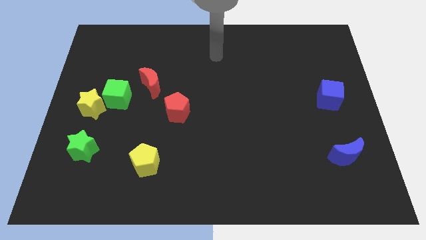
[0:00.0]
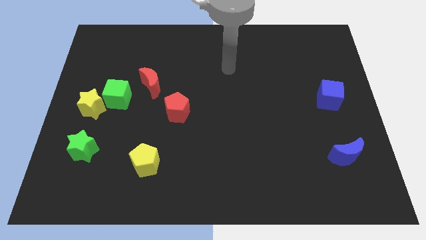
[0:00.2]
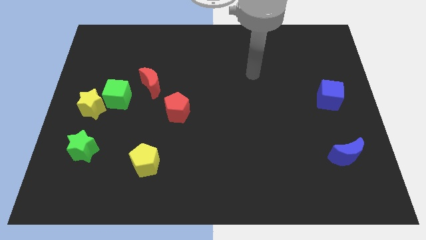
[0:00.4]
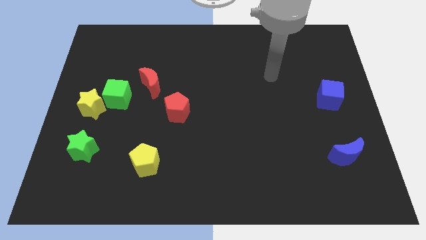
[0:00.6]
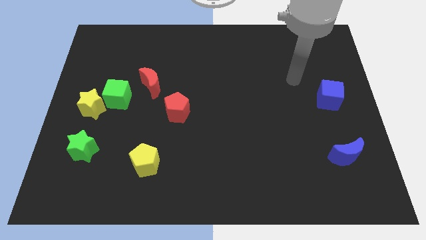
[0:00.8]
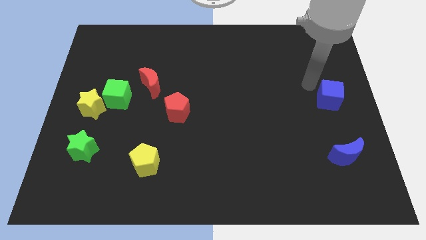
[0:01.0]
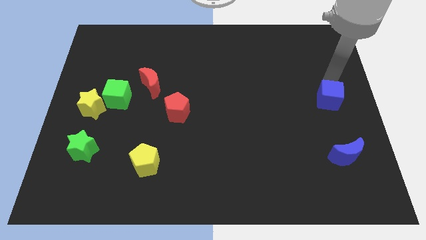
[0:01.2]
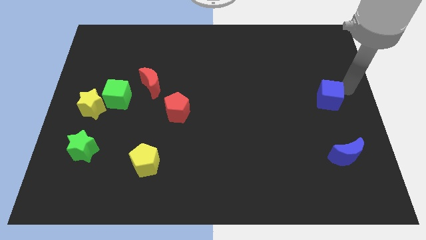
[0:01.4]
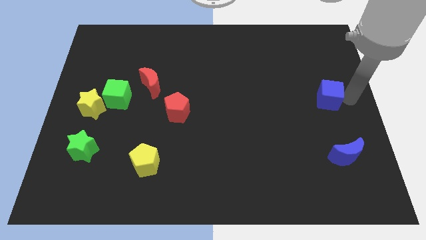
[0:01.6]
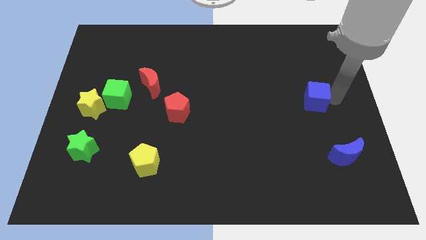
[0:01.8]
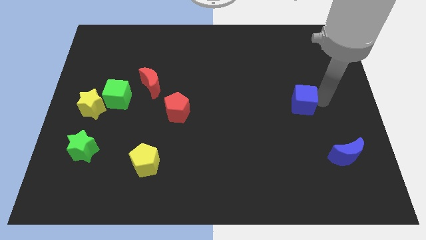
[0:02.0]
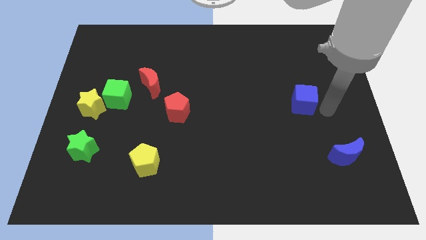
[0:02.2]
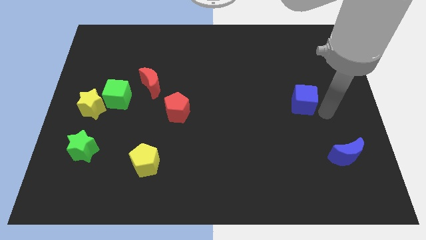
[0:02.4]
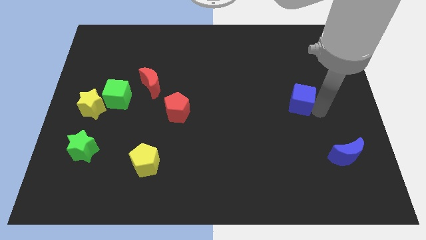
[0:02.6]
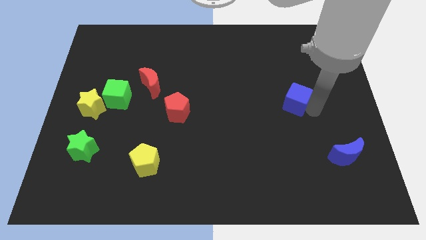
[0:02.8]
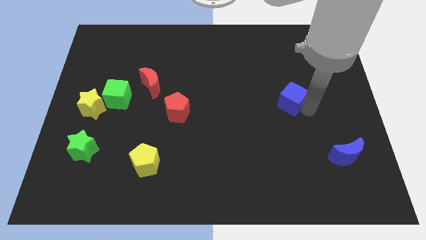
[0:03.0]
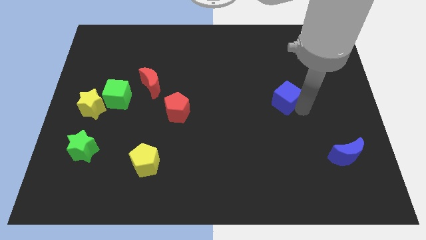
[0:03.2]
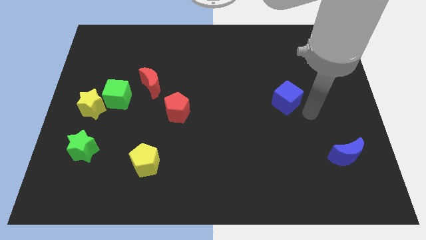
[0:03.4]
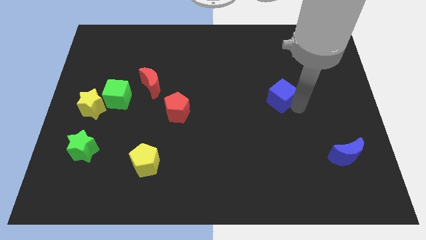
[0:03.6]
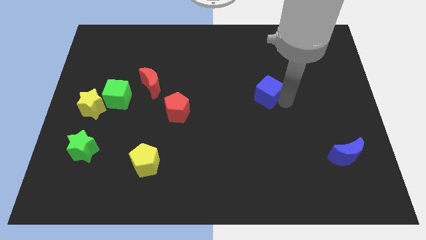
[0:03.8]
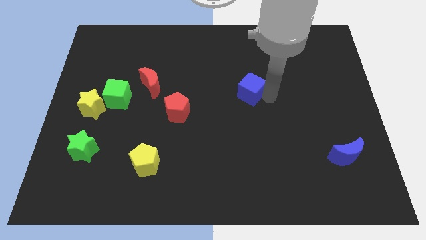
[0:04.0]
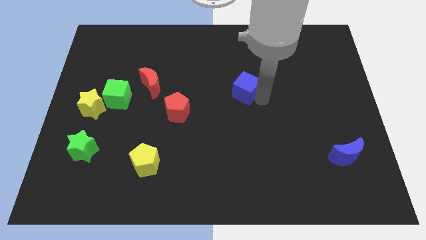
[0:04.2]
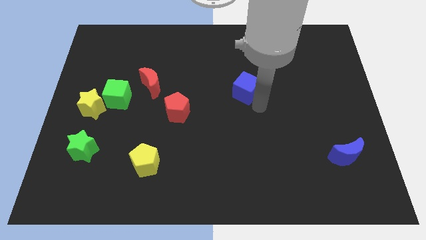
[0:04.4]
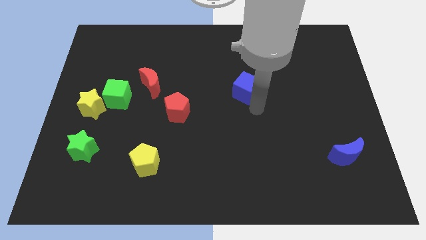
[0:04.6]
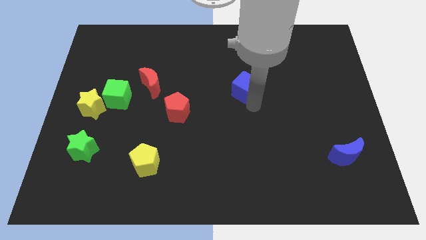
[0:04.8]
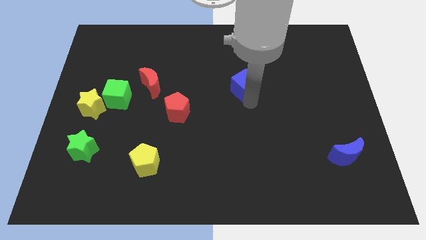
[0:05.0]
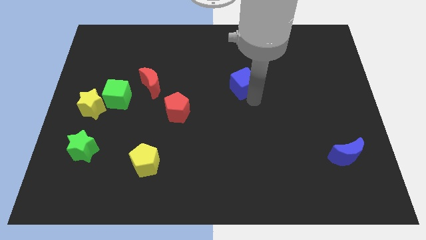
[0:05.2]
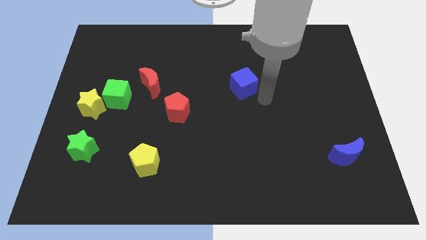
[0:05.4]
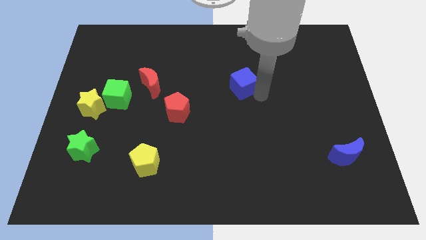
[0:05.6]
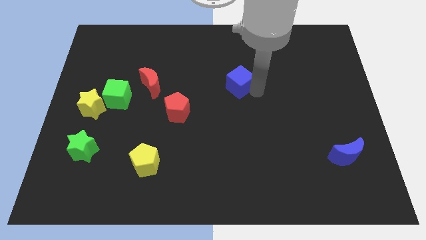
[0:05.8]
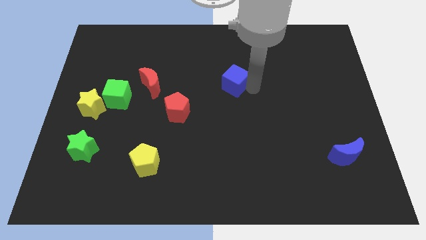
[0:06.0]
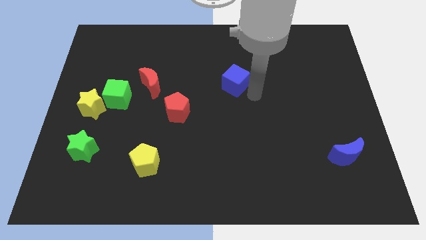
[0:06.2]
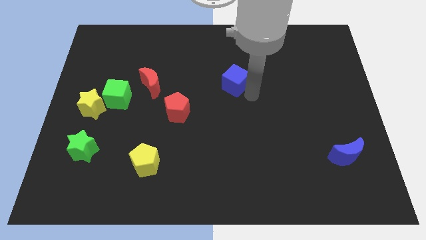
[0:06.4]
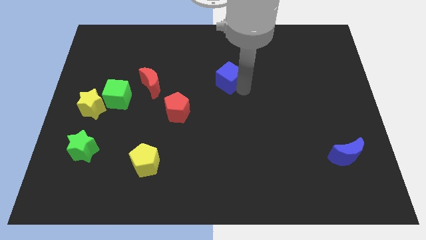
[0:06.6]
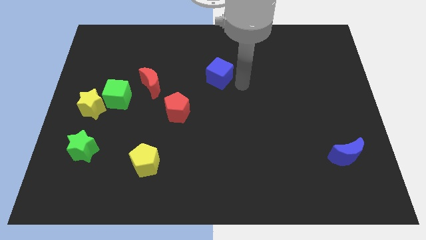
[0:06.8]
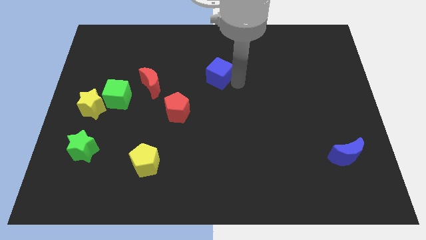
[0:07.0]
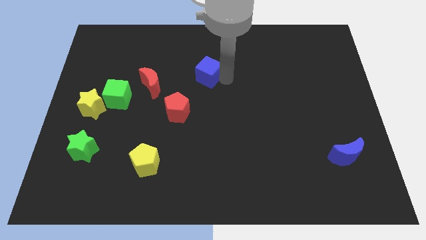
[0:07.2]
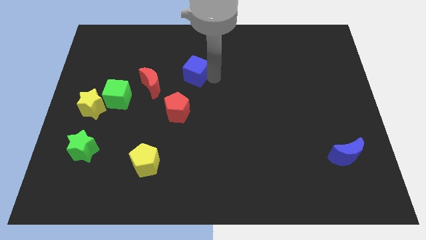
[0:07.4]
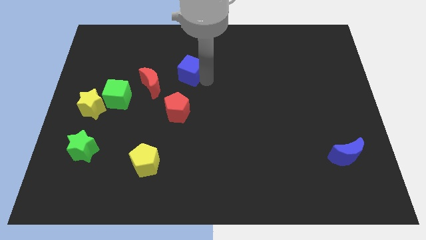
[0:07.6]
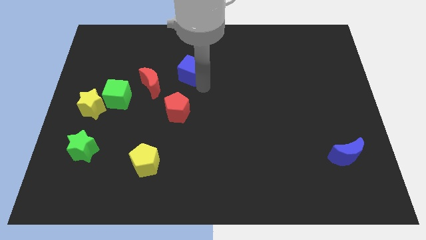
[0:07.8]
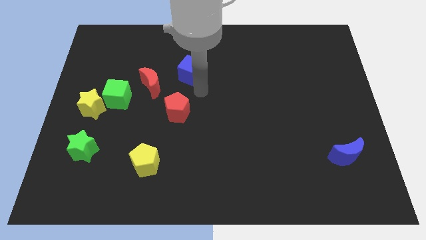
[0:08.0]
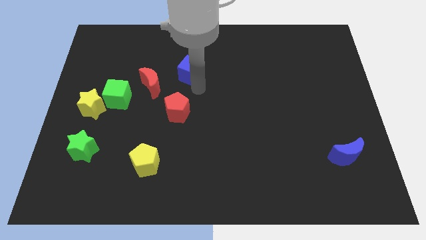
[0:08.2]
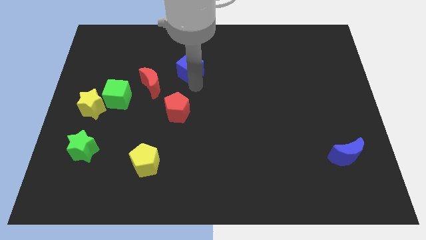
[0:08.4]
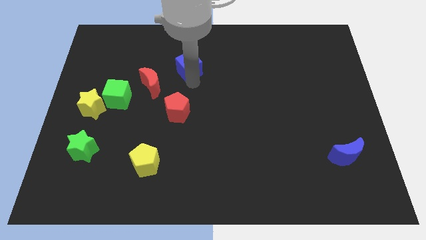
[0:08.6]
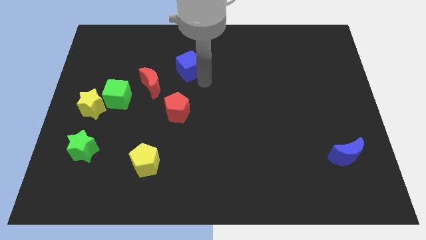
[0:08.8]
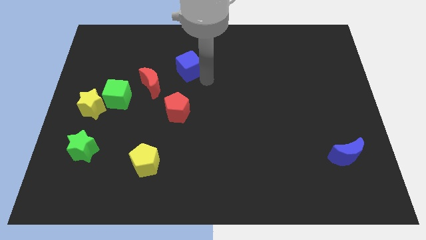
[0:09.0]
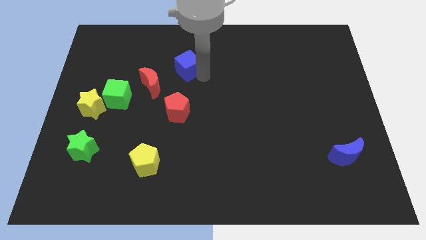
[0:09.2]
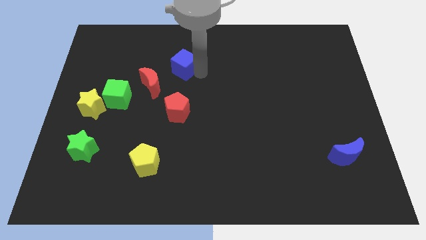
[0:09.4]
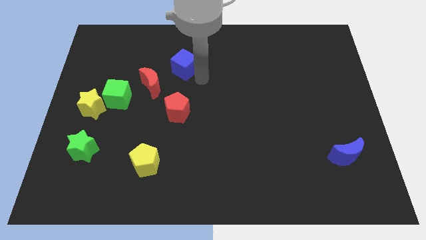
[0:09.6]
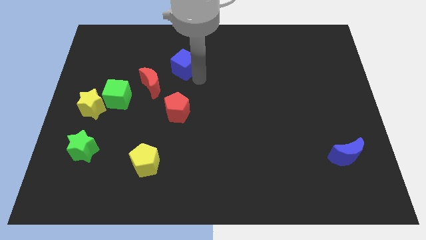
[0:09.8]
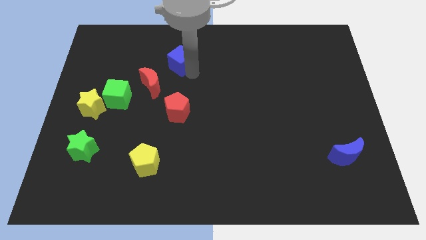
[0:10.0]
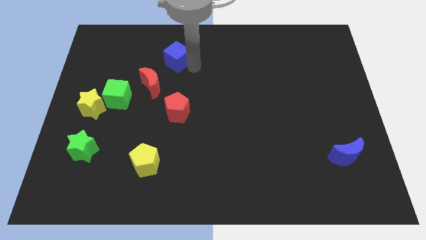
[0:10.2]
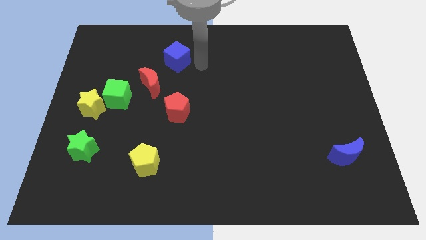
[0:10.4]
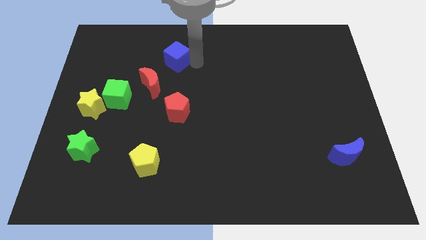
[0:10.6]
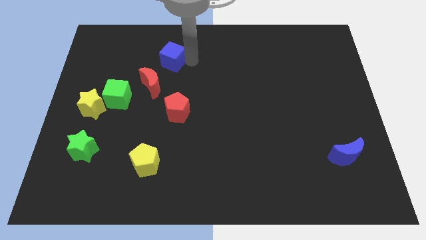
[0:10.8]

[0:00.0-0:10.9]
move the blue cube above the red moon

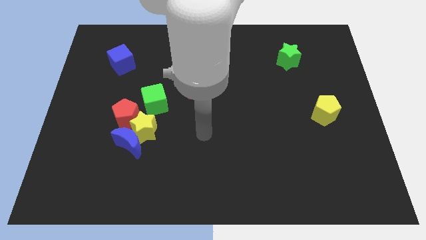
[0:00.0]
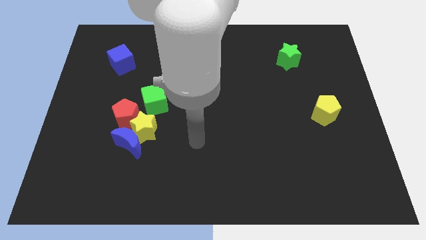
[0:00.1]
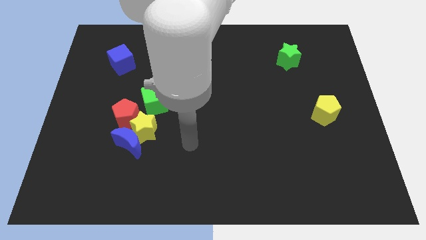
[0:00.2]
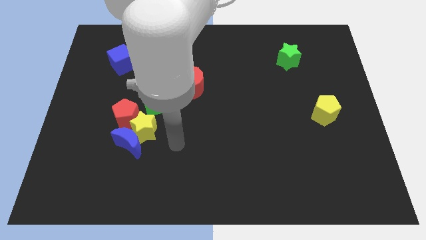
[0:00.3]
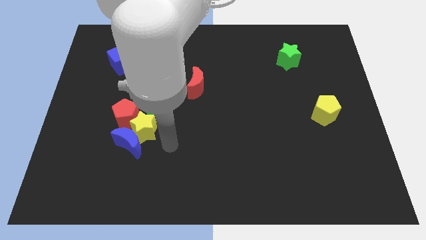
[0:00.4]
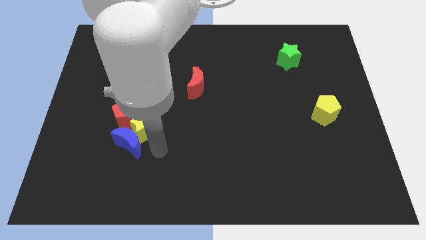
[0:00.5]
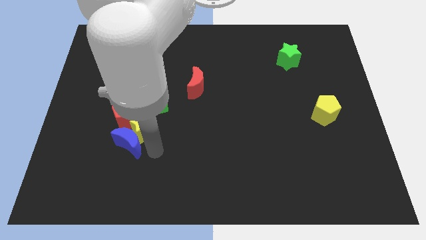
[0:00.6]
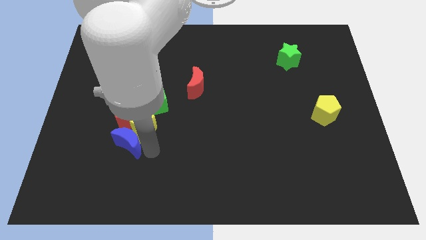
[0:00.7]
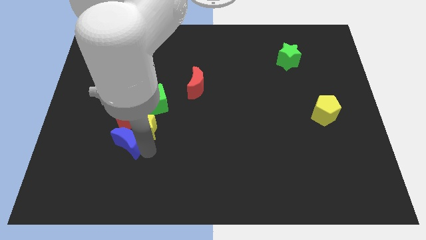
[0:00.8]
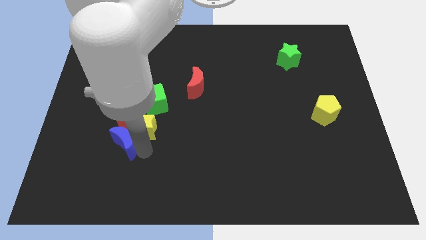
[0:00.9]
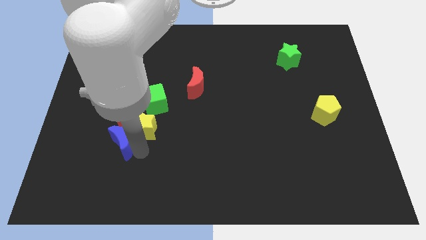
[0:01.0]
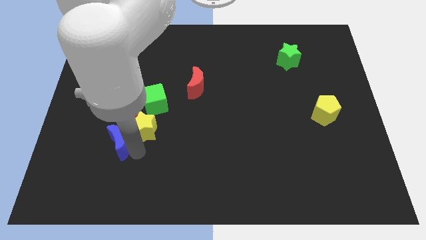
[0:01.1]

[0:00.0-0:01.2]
slide the blue moon to the bottom left side of the red pentagon

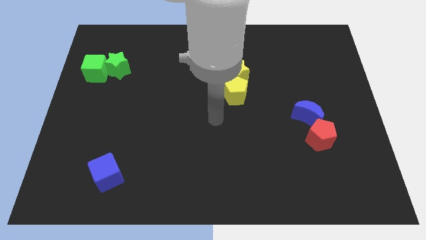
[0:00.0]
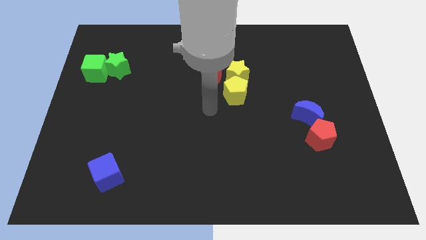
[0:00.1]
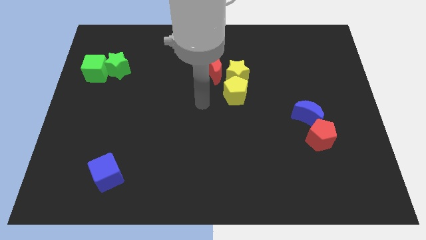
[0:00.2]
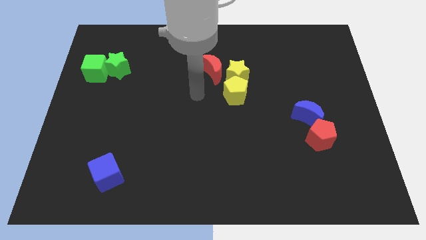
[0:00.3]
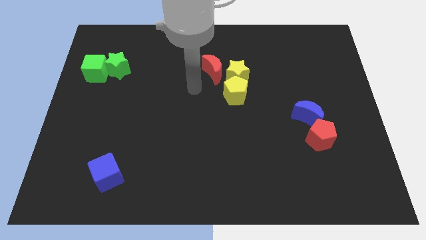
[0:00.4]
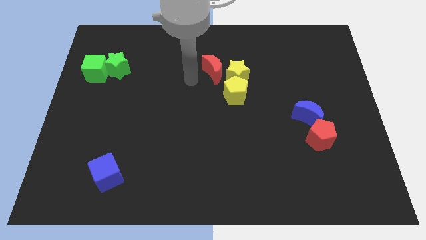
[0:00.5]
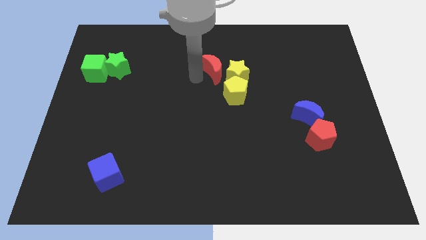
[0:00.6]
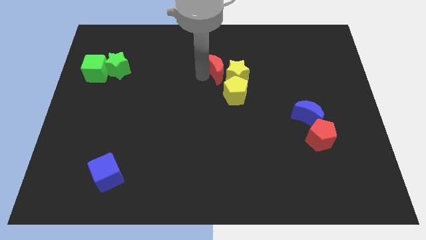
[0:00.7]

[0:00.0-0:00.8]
push the red moon to the top of the yellow pentagon
